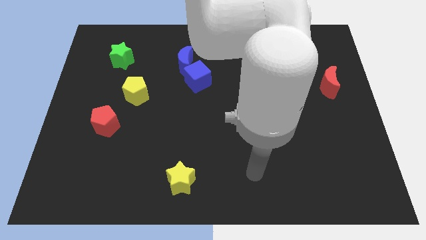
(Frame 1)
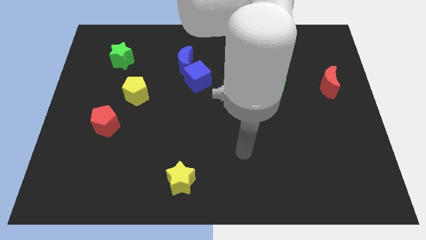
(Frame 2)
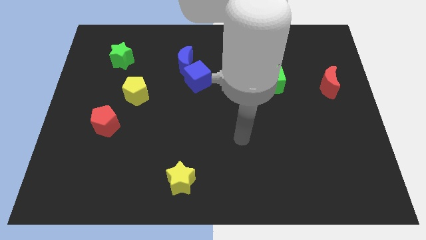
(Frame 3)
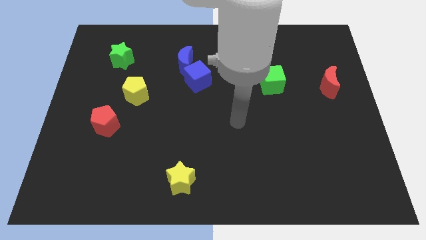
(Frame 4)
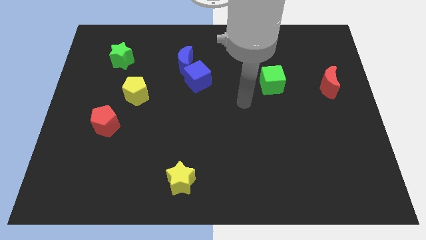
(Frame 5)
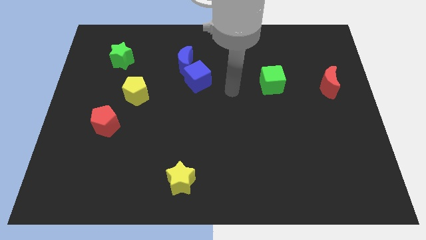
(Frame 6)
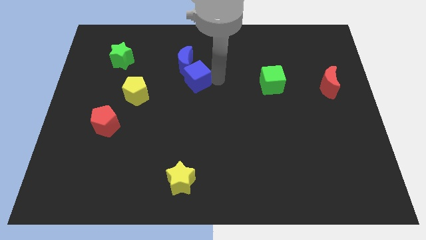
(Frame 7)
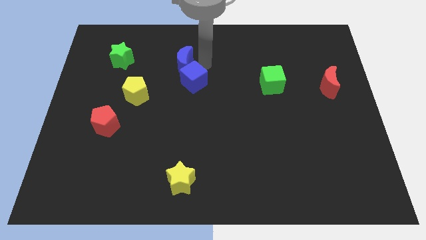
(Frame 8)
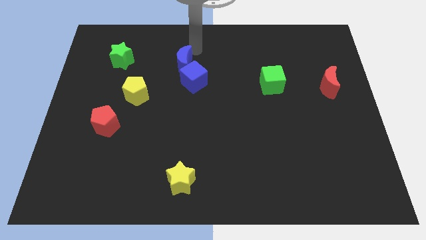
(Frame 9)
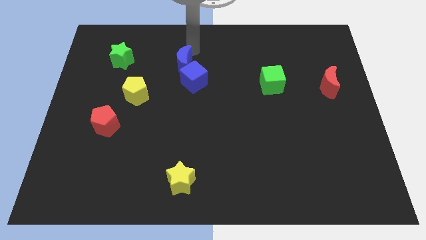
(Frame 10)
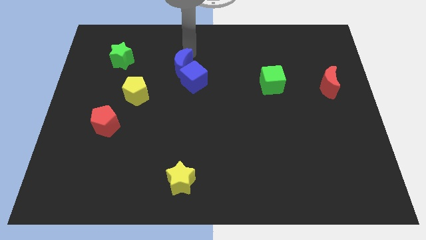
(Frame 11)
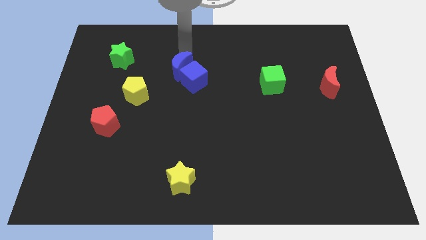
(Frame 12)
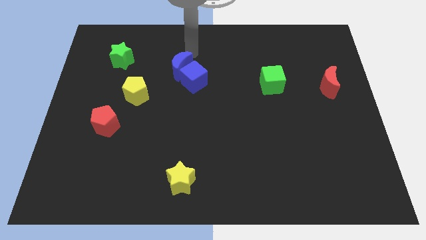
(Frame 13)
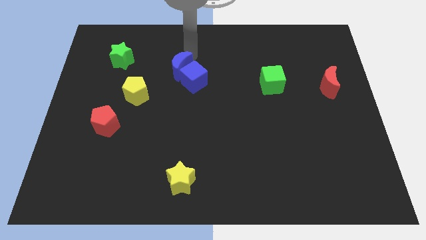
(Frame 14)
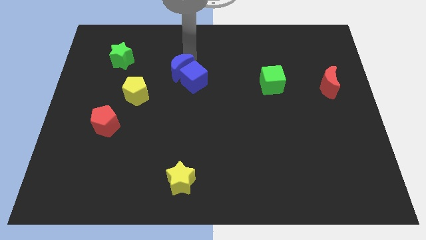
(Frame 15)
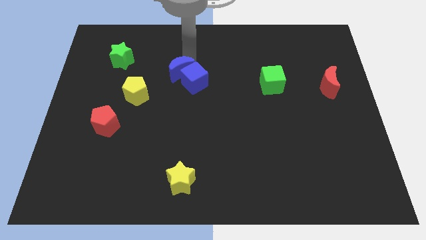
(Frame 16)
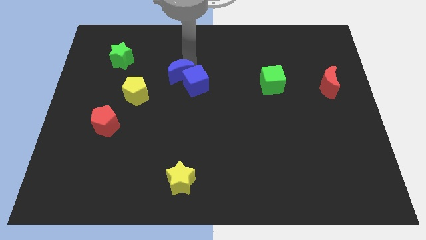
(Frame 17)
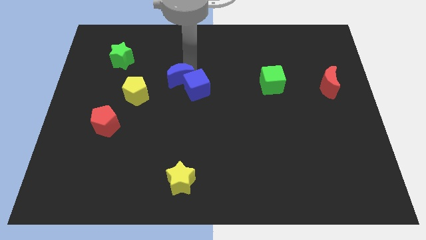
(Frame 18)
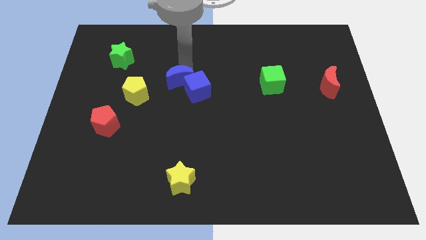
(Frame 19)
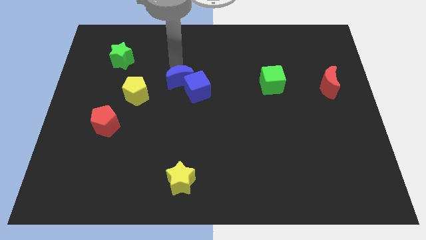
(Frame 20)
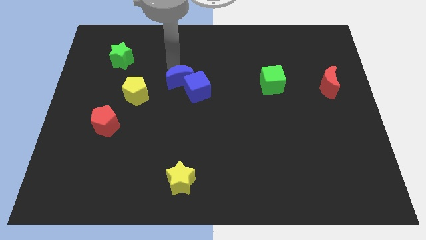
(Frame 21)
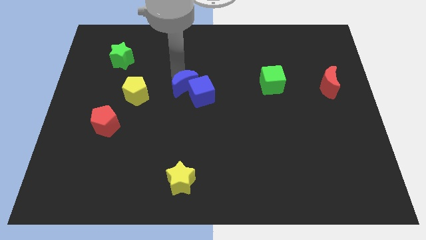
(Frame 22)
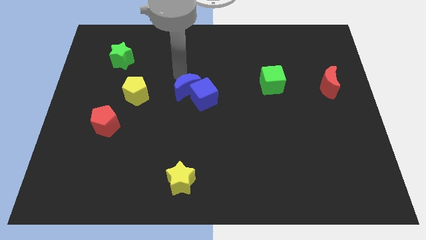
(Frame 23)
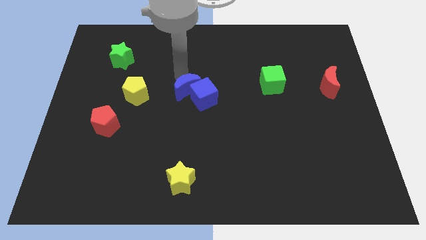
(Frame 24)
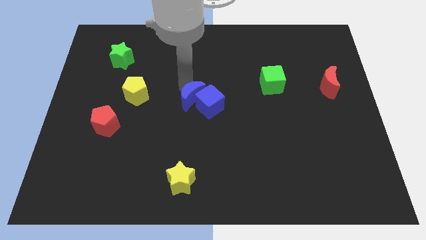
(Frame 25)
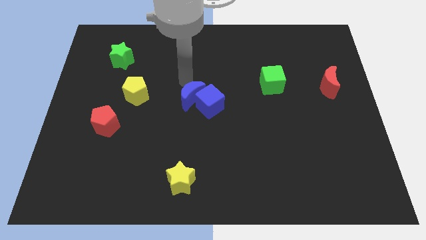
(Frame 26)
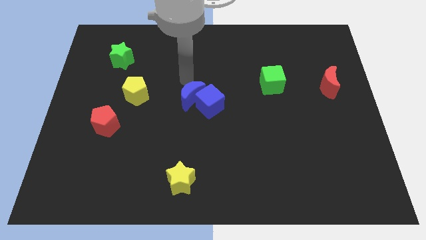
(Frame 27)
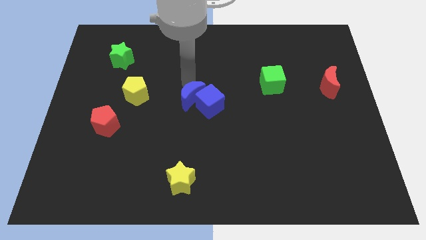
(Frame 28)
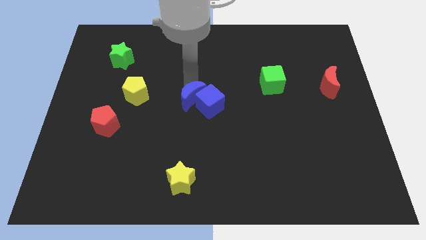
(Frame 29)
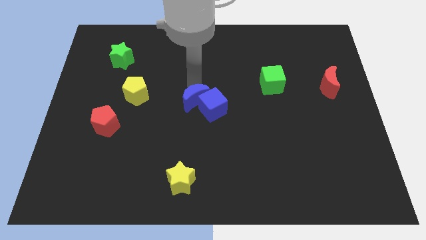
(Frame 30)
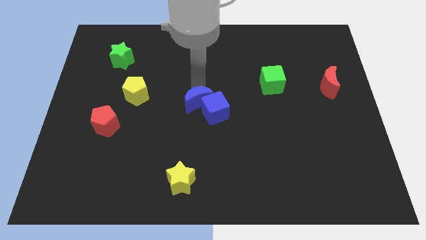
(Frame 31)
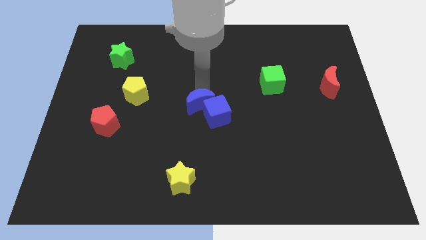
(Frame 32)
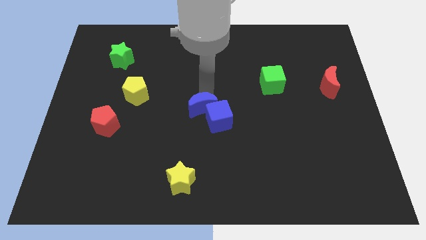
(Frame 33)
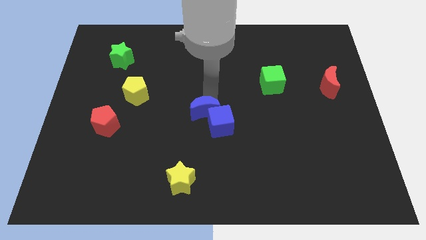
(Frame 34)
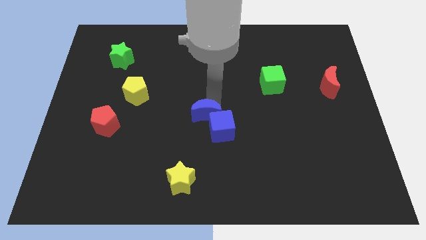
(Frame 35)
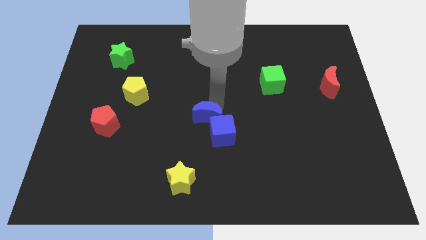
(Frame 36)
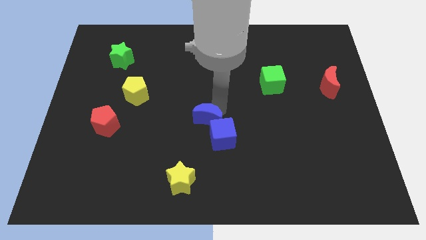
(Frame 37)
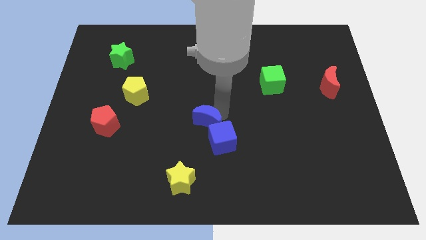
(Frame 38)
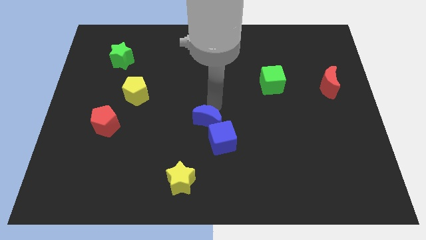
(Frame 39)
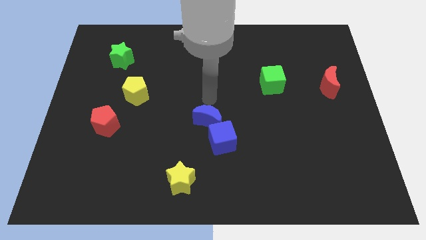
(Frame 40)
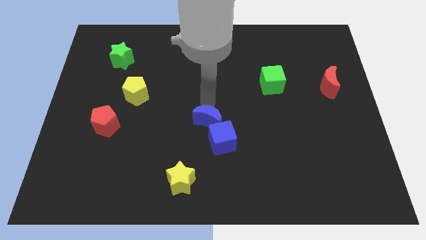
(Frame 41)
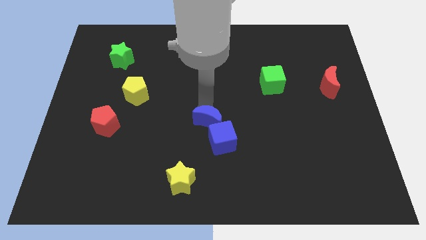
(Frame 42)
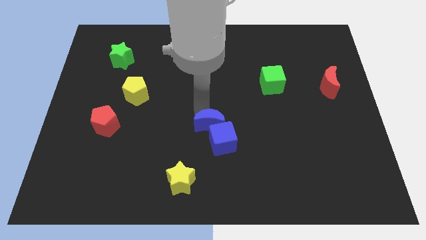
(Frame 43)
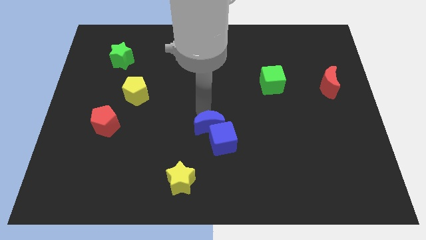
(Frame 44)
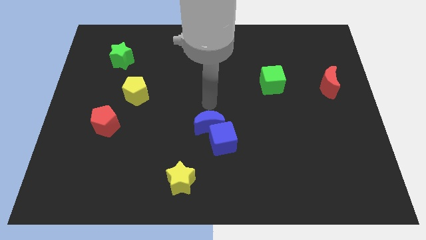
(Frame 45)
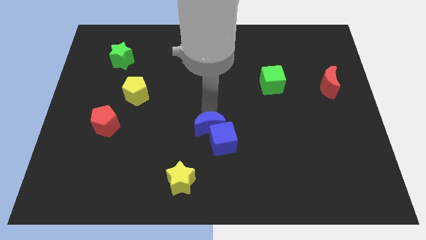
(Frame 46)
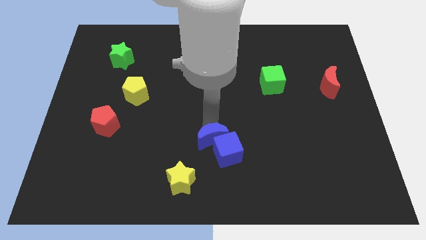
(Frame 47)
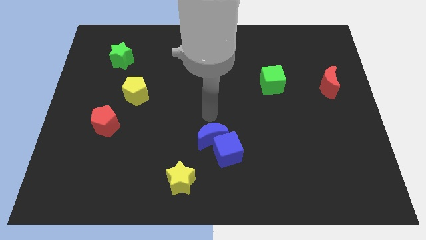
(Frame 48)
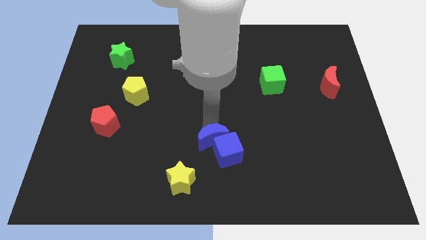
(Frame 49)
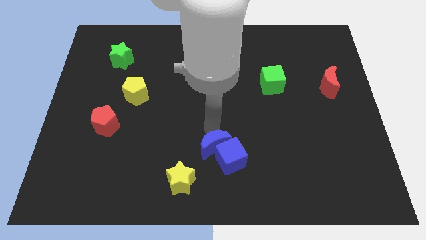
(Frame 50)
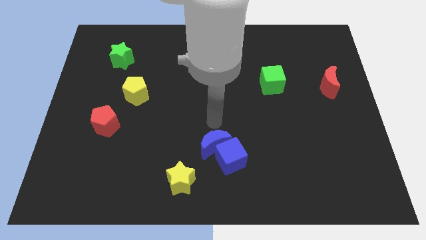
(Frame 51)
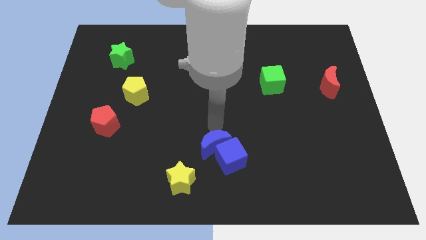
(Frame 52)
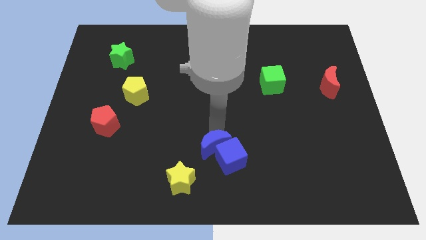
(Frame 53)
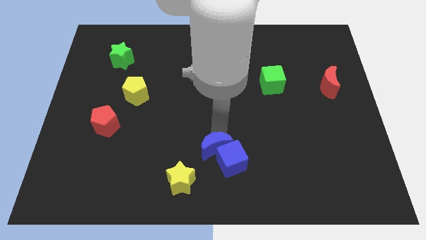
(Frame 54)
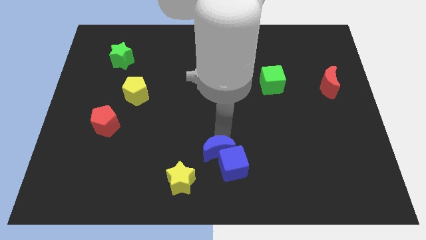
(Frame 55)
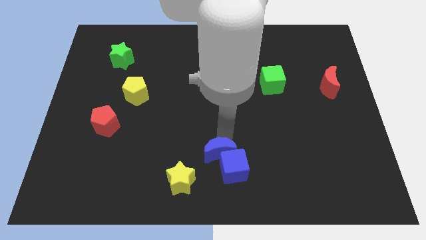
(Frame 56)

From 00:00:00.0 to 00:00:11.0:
put the blue moon to the bottom side
